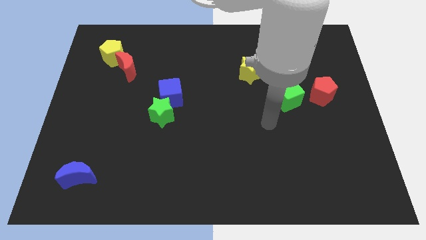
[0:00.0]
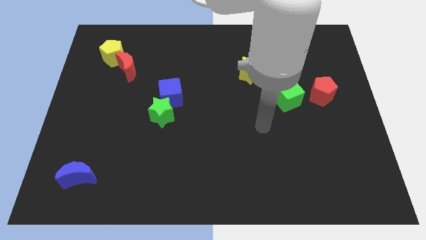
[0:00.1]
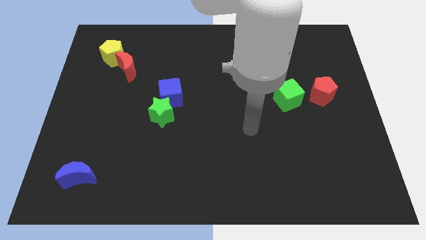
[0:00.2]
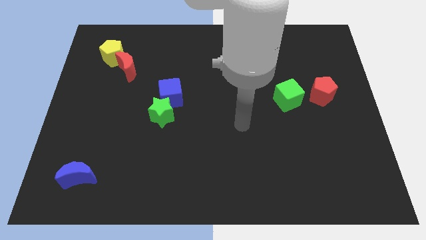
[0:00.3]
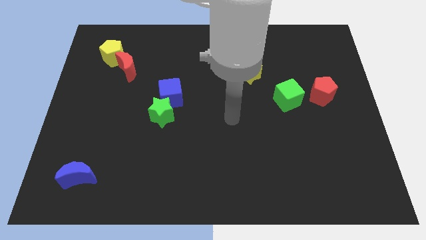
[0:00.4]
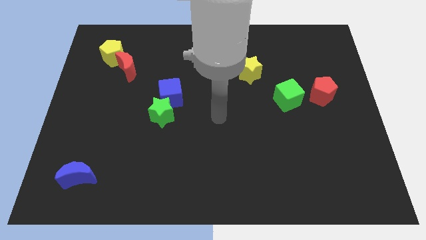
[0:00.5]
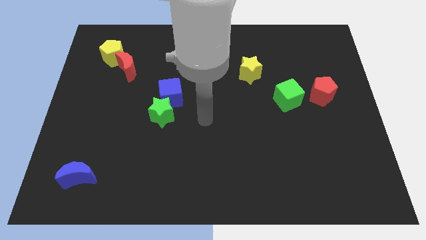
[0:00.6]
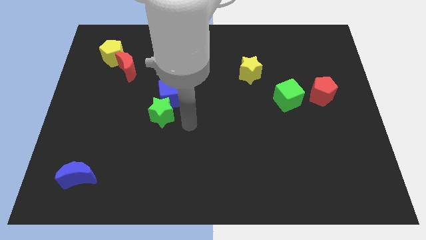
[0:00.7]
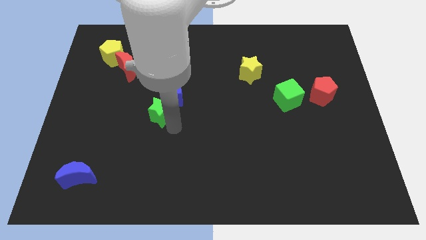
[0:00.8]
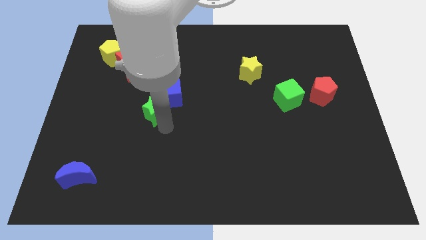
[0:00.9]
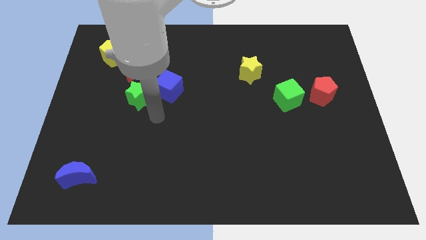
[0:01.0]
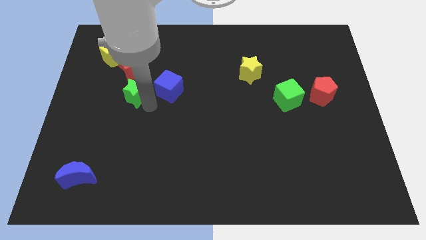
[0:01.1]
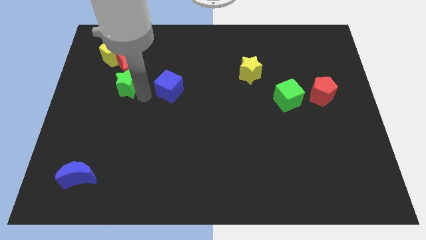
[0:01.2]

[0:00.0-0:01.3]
separate the blue cube from the green star

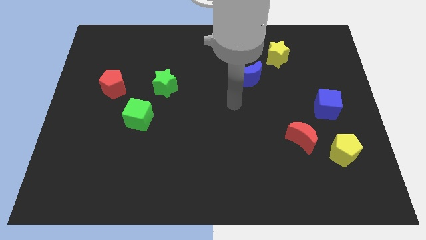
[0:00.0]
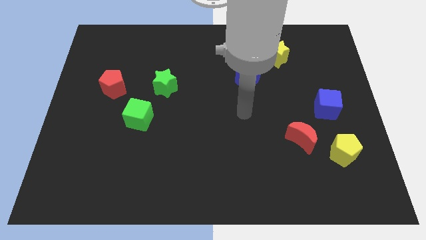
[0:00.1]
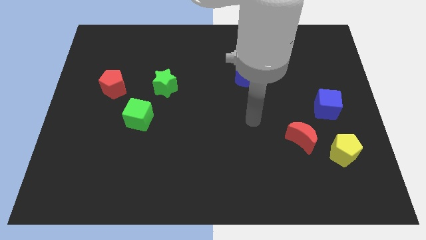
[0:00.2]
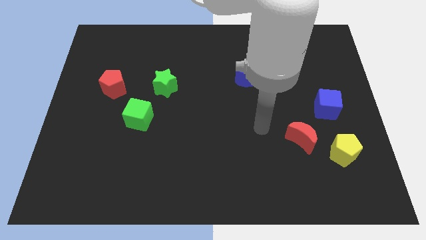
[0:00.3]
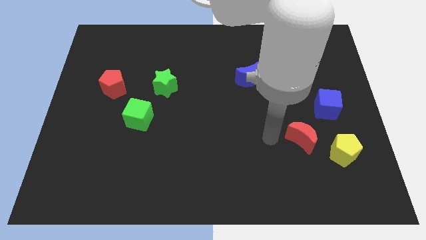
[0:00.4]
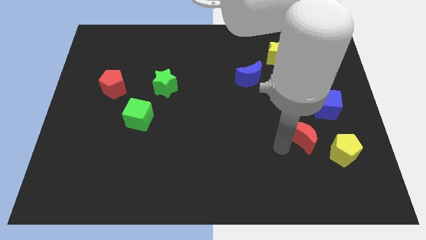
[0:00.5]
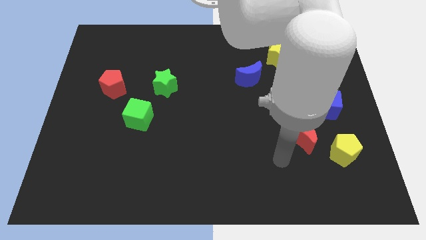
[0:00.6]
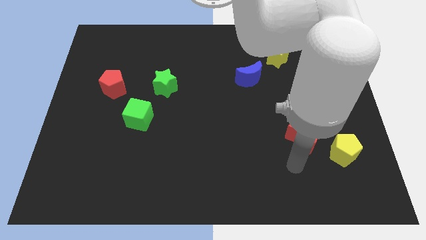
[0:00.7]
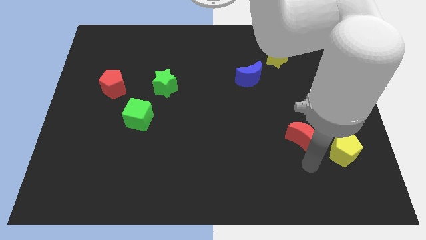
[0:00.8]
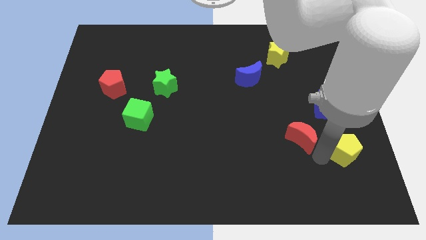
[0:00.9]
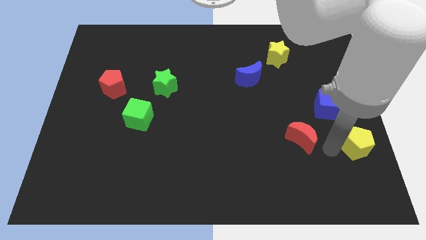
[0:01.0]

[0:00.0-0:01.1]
move the red moon away from the yellow pentagon

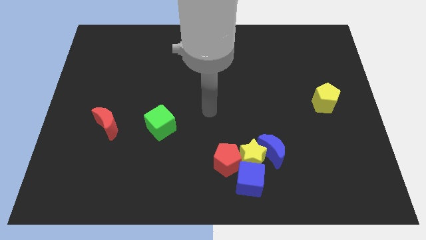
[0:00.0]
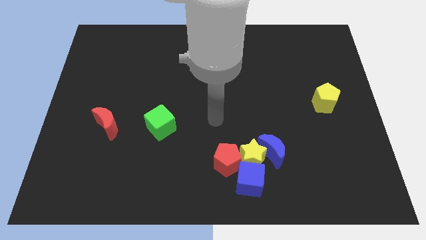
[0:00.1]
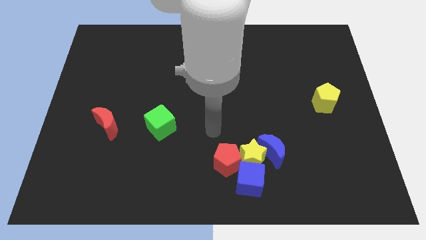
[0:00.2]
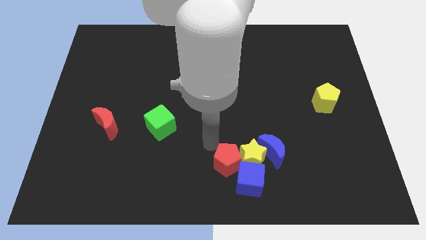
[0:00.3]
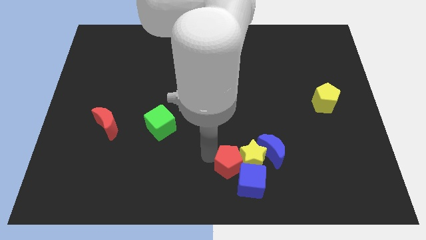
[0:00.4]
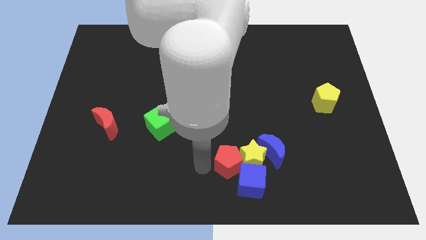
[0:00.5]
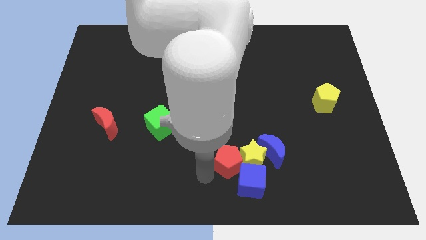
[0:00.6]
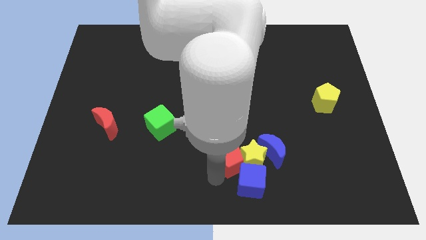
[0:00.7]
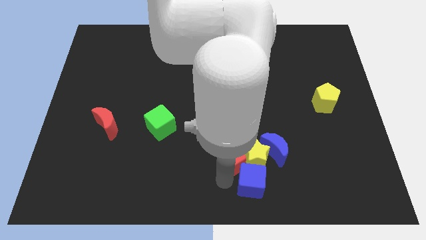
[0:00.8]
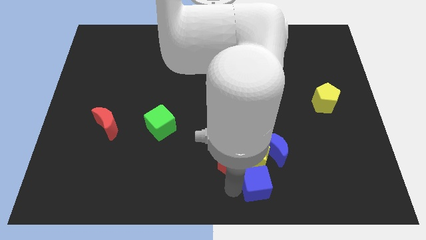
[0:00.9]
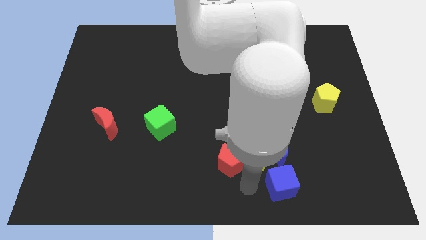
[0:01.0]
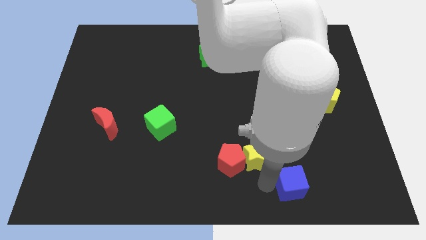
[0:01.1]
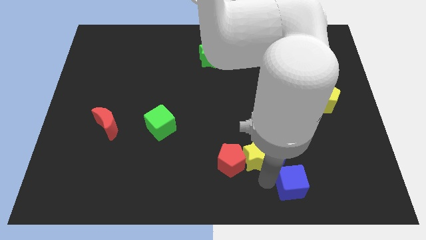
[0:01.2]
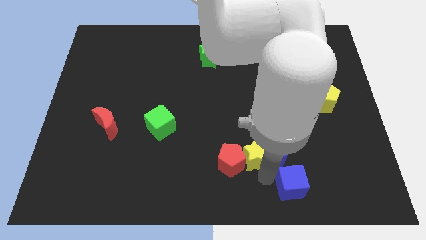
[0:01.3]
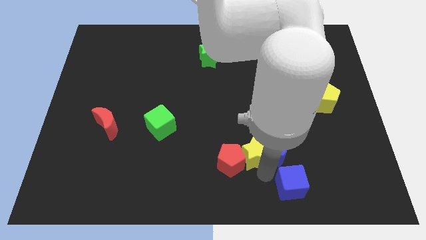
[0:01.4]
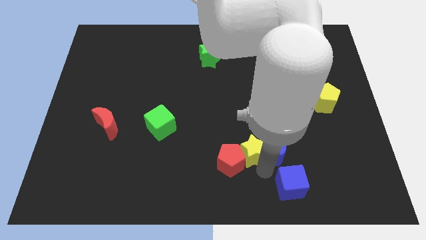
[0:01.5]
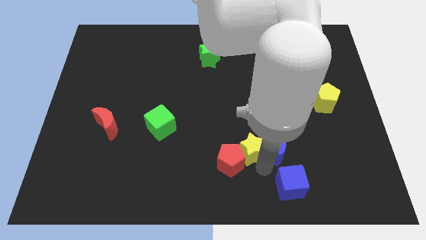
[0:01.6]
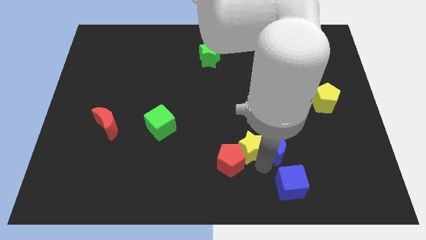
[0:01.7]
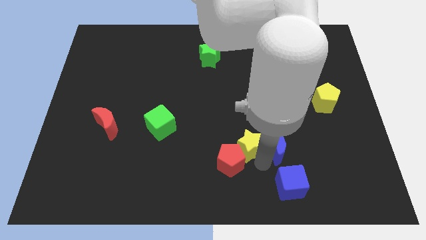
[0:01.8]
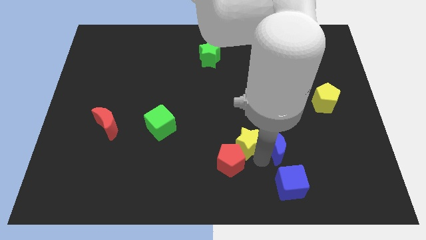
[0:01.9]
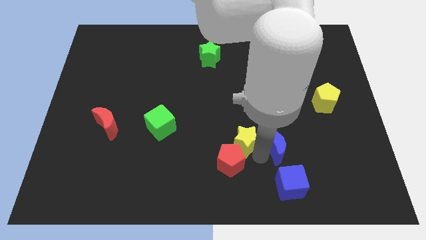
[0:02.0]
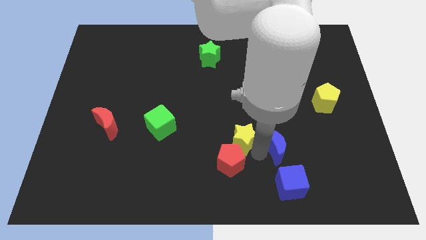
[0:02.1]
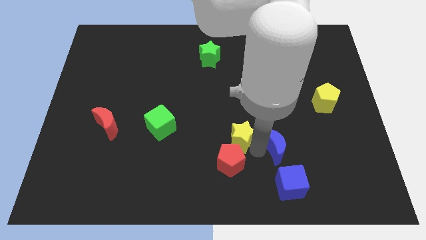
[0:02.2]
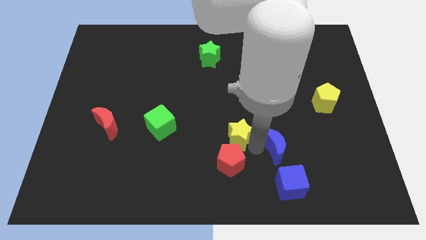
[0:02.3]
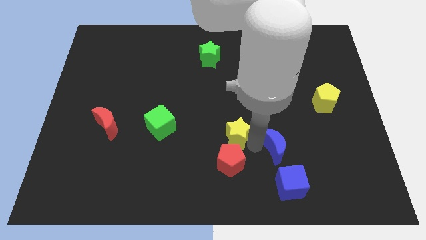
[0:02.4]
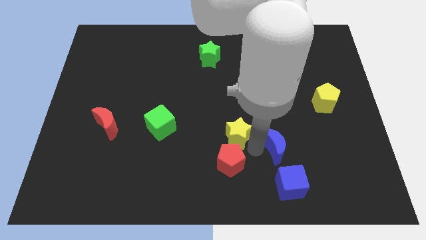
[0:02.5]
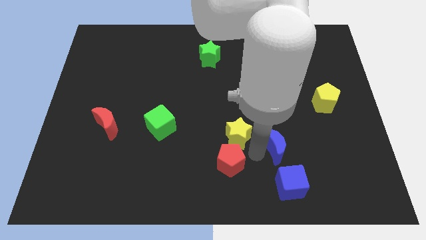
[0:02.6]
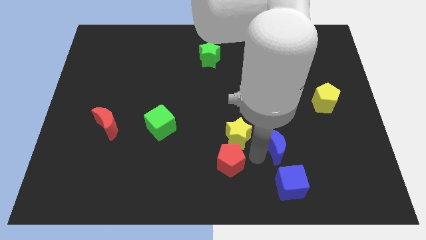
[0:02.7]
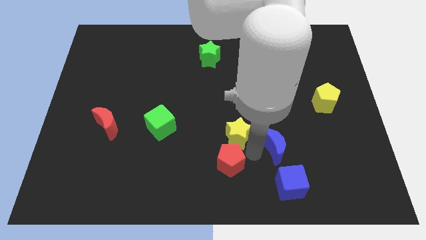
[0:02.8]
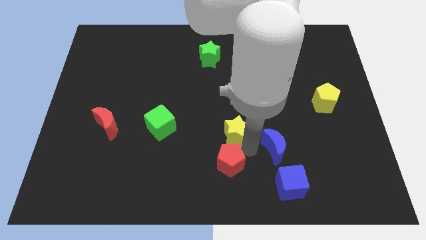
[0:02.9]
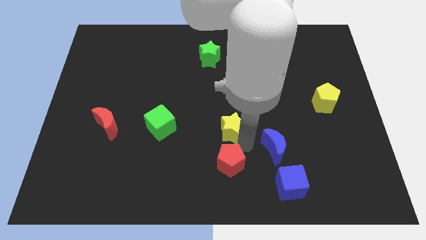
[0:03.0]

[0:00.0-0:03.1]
move the yellow star away from the blue moon, red pentagon, and blue cube

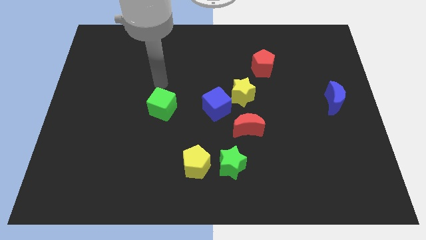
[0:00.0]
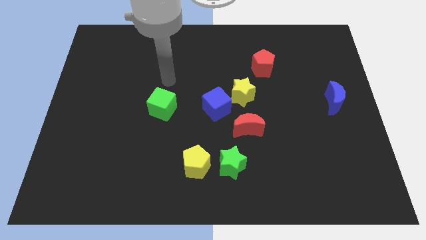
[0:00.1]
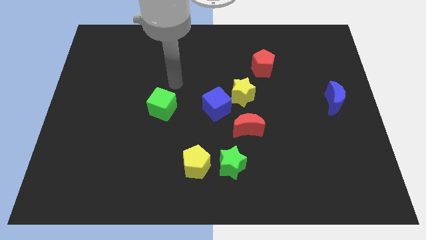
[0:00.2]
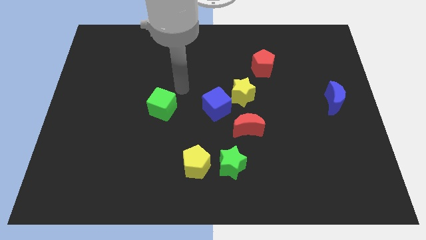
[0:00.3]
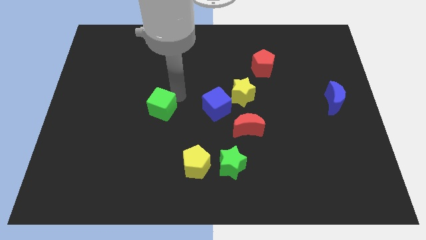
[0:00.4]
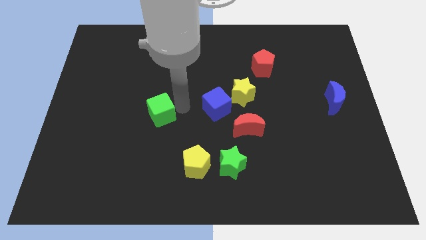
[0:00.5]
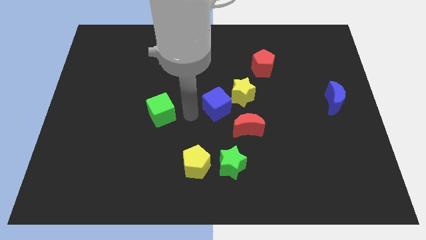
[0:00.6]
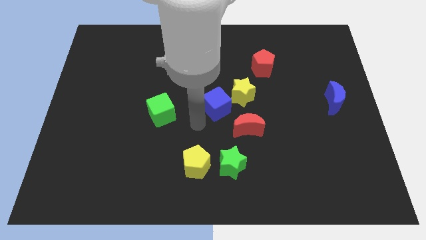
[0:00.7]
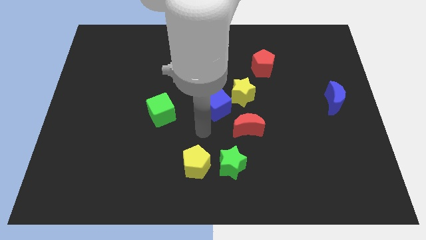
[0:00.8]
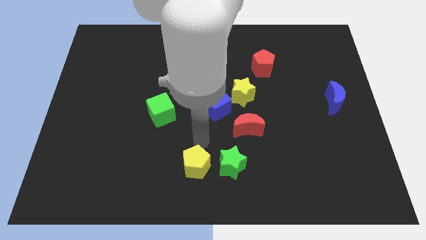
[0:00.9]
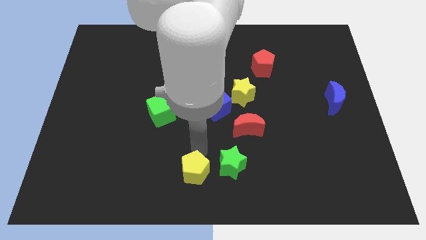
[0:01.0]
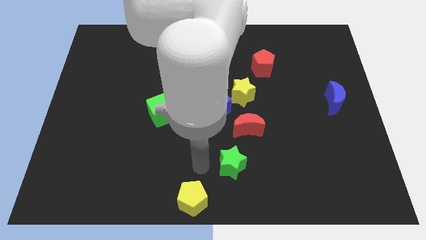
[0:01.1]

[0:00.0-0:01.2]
move the green star away from the yellow pentagon

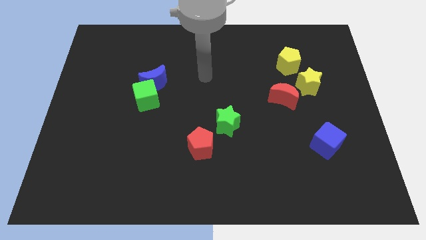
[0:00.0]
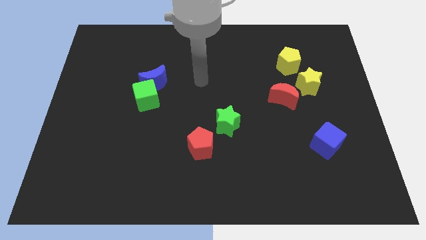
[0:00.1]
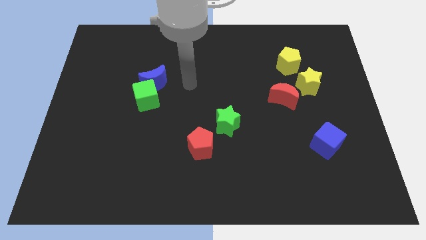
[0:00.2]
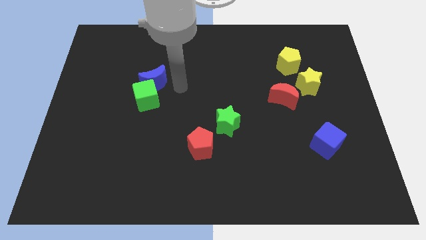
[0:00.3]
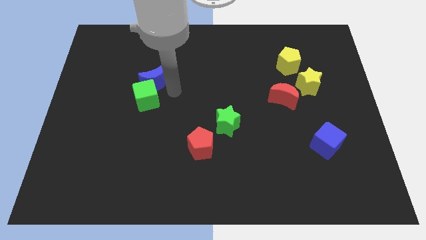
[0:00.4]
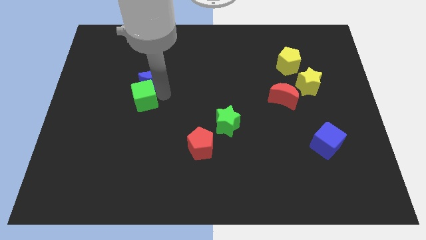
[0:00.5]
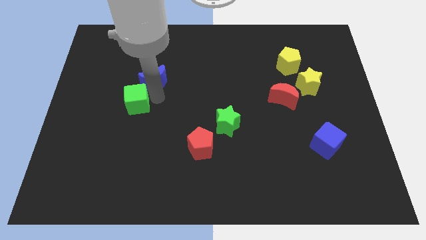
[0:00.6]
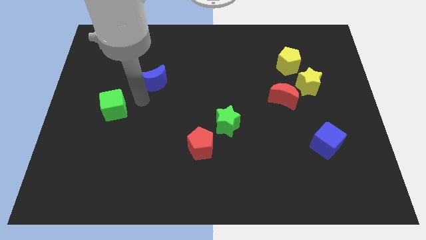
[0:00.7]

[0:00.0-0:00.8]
pull the blue moon apart from the green cube

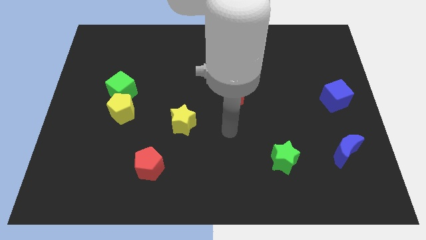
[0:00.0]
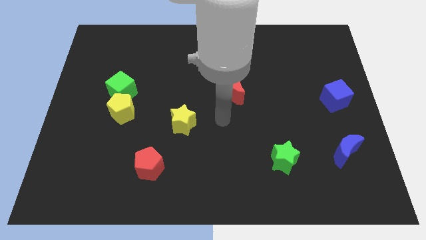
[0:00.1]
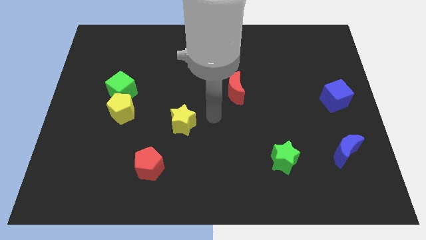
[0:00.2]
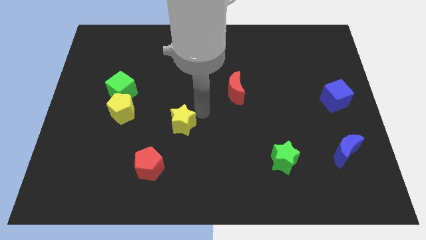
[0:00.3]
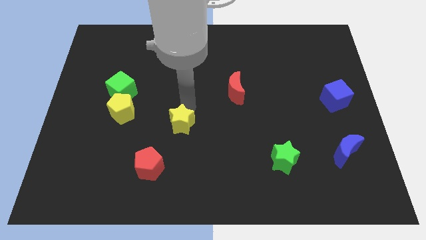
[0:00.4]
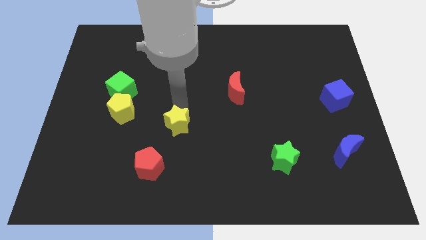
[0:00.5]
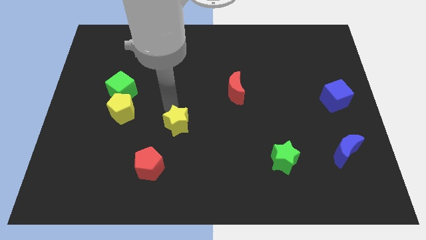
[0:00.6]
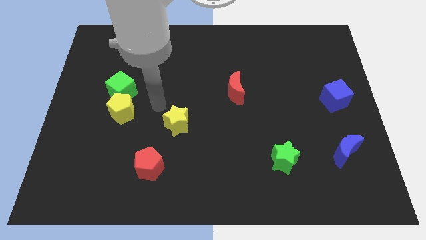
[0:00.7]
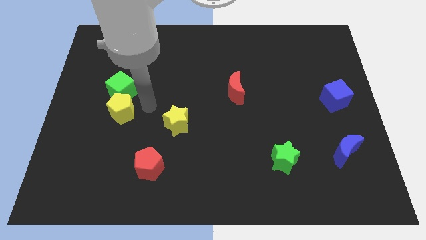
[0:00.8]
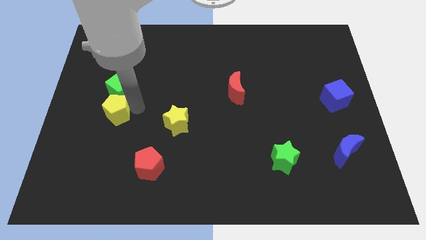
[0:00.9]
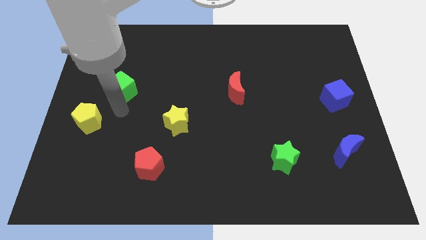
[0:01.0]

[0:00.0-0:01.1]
separate the green cube from the yellow pentagon

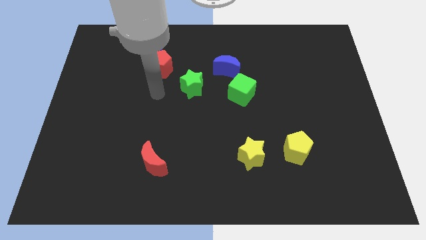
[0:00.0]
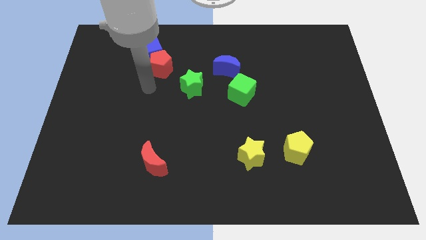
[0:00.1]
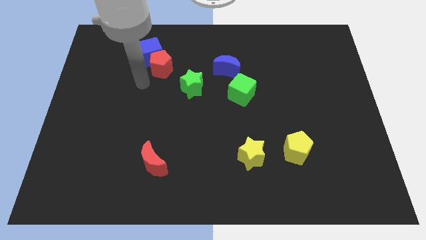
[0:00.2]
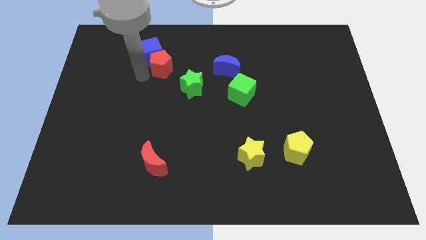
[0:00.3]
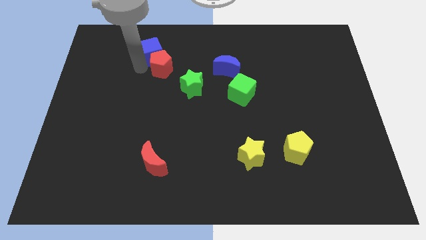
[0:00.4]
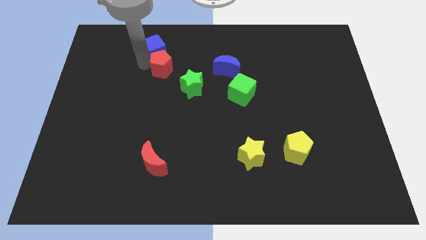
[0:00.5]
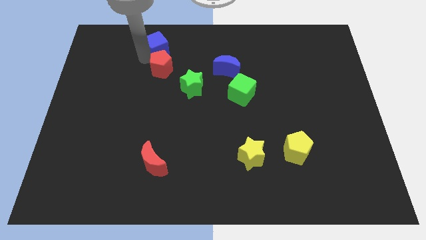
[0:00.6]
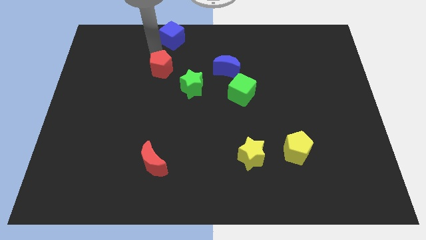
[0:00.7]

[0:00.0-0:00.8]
move the red pentagon away from the blue cube

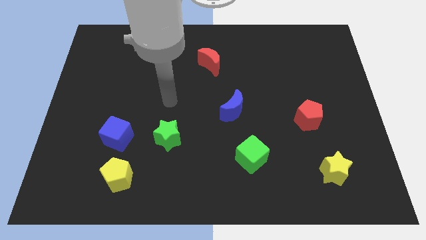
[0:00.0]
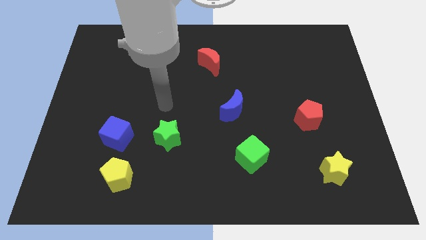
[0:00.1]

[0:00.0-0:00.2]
separate the blue cube from the yellow pentagon
